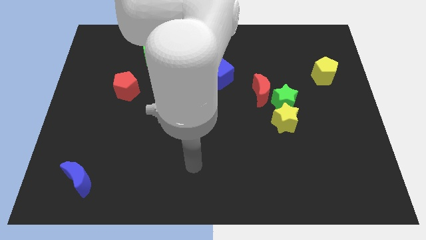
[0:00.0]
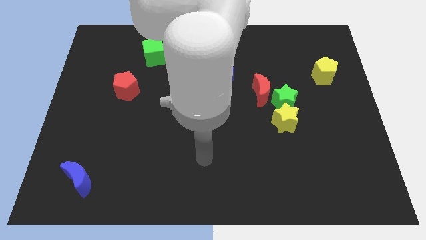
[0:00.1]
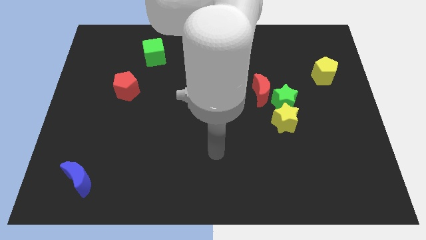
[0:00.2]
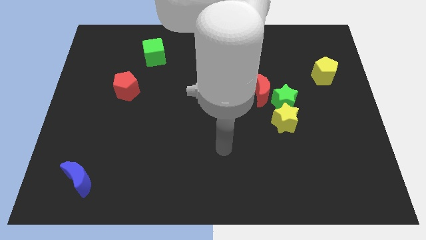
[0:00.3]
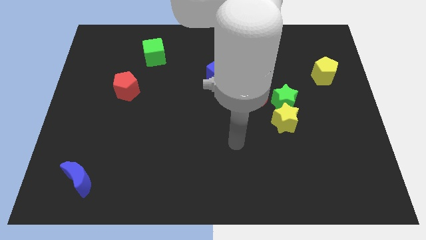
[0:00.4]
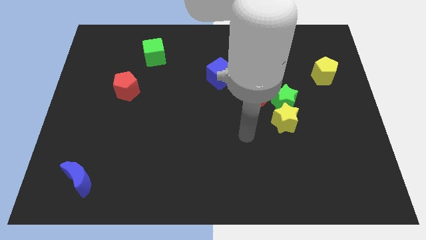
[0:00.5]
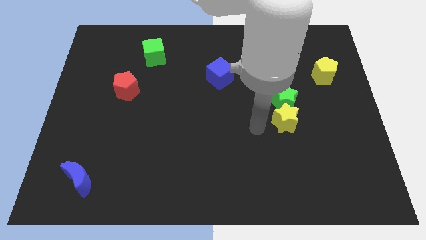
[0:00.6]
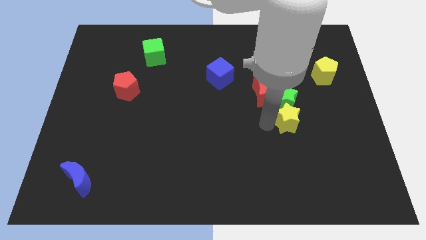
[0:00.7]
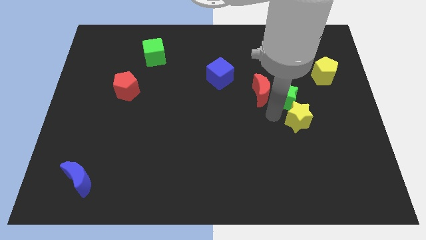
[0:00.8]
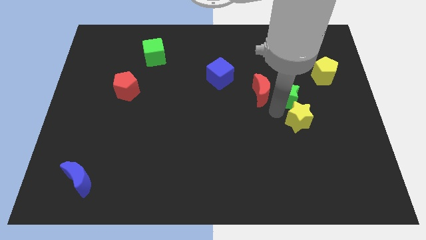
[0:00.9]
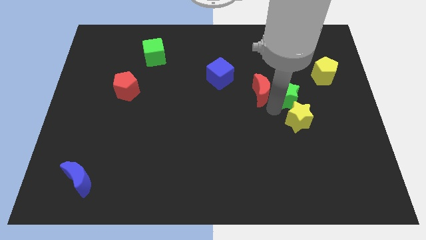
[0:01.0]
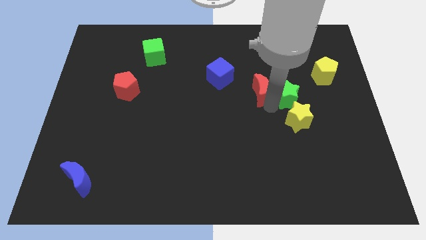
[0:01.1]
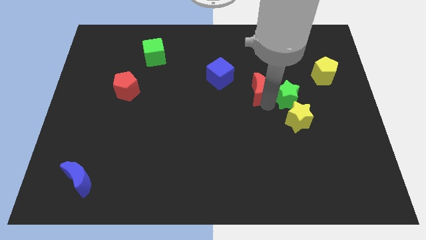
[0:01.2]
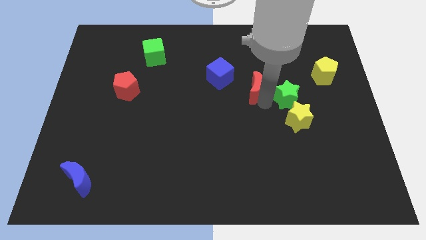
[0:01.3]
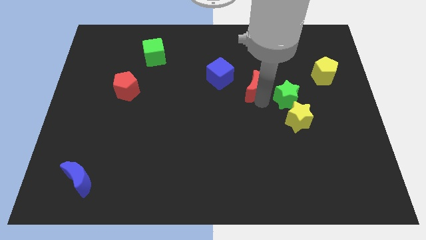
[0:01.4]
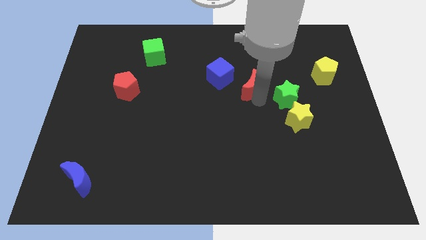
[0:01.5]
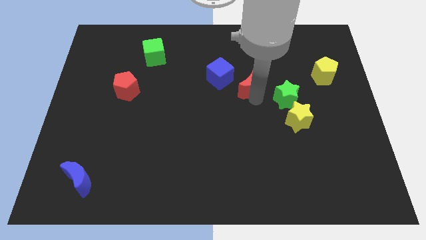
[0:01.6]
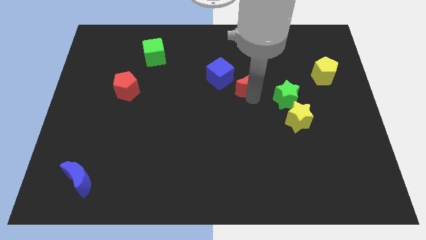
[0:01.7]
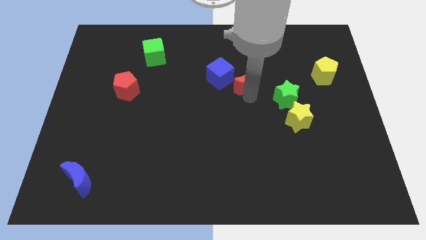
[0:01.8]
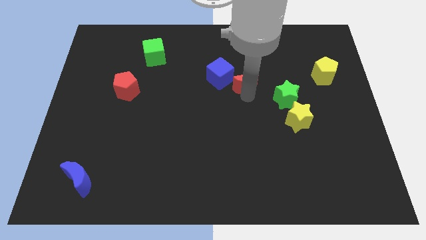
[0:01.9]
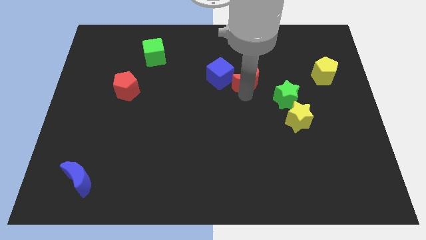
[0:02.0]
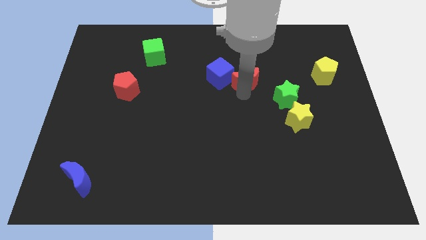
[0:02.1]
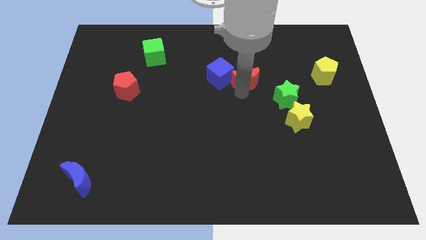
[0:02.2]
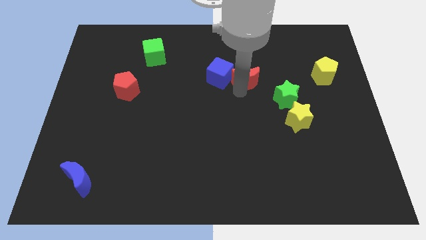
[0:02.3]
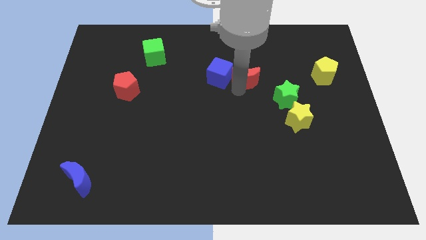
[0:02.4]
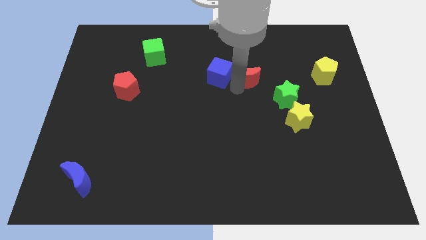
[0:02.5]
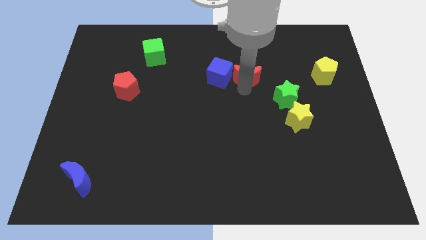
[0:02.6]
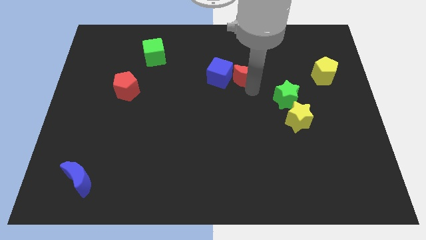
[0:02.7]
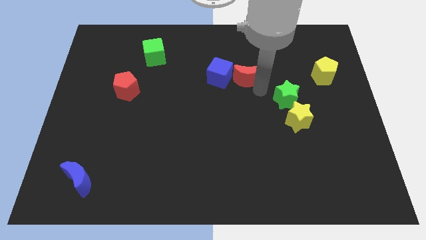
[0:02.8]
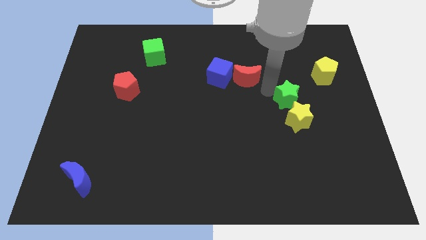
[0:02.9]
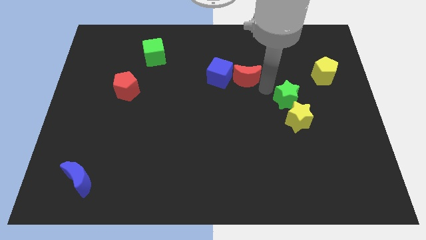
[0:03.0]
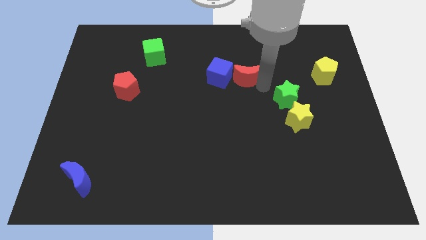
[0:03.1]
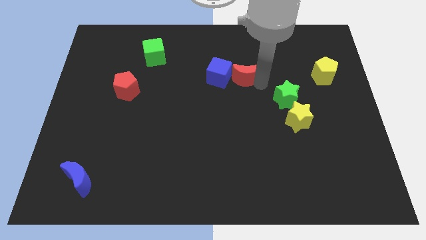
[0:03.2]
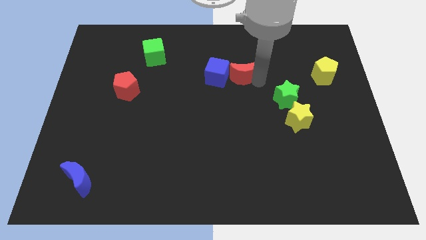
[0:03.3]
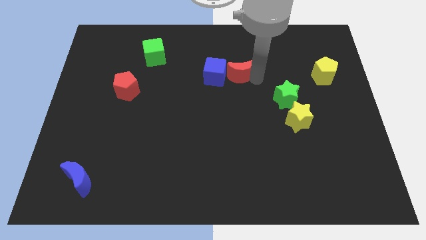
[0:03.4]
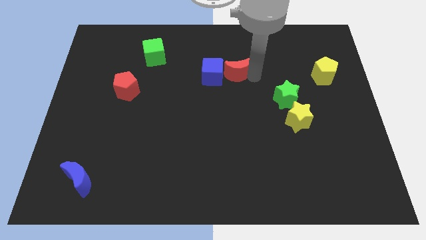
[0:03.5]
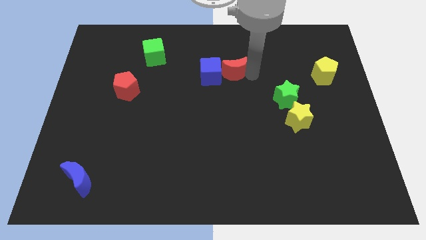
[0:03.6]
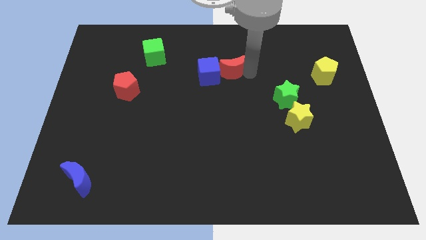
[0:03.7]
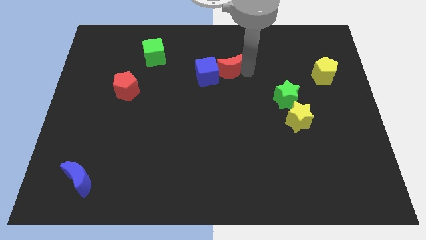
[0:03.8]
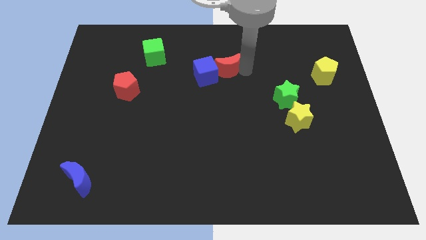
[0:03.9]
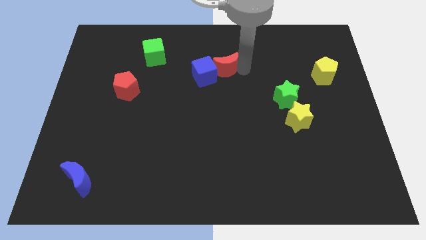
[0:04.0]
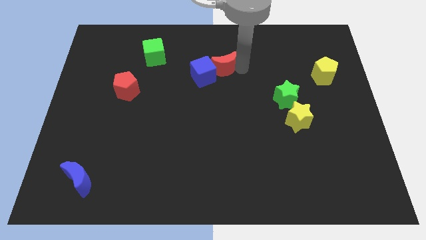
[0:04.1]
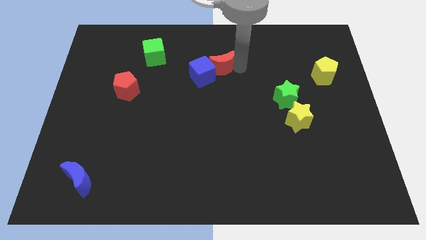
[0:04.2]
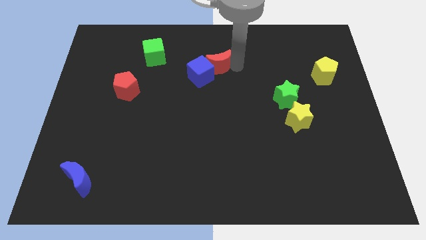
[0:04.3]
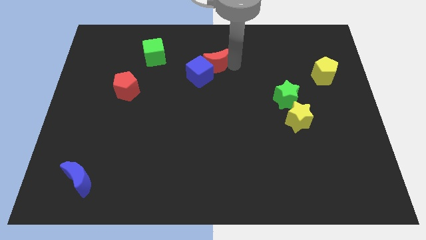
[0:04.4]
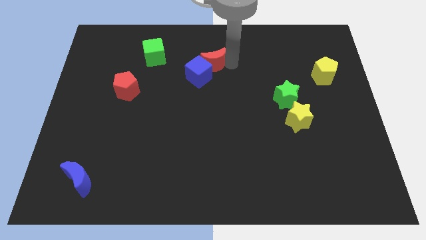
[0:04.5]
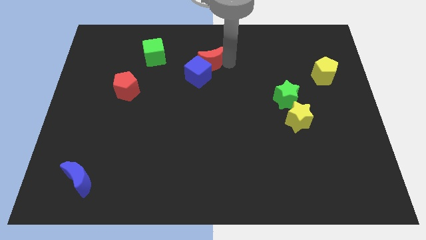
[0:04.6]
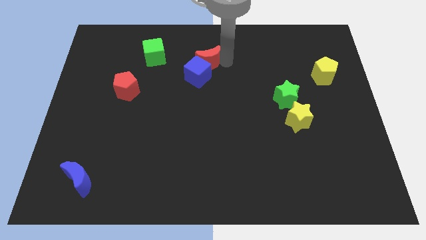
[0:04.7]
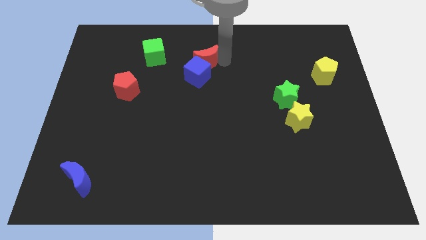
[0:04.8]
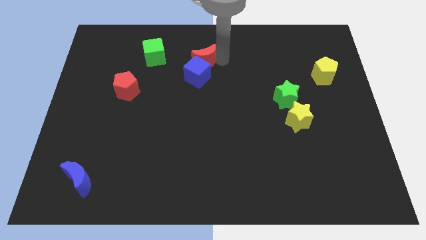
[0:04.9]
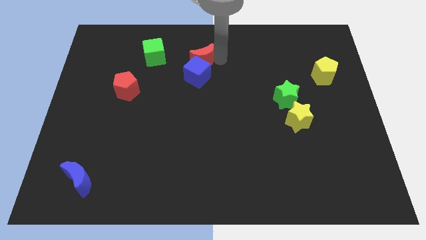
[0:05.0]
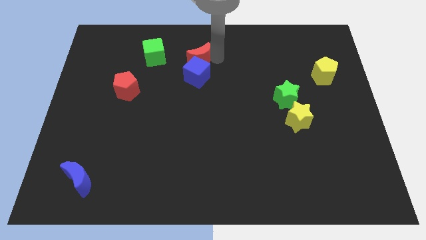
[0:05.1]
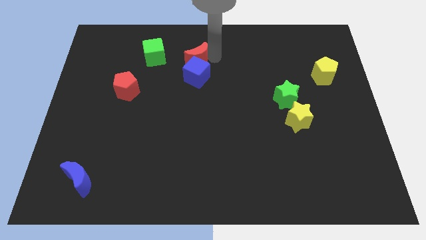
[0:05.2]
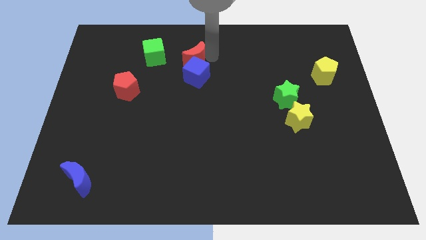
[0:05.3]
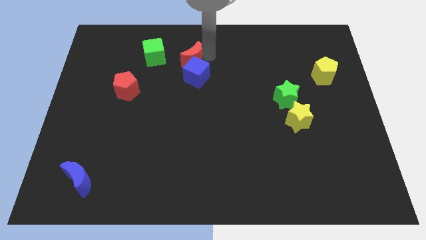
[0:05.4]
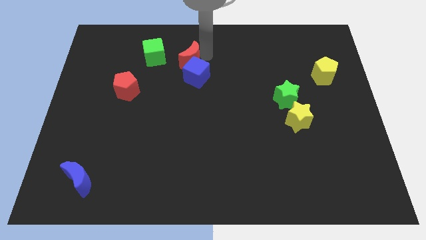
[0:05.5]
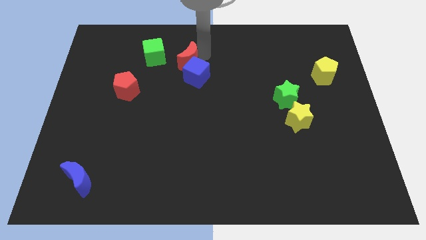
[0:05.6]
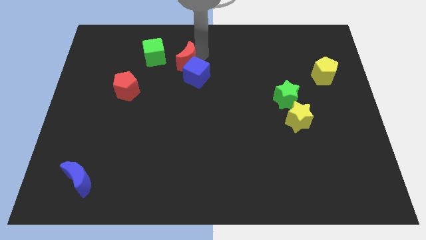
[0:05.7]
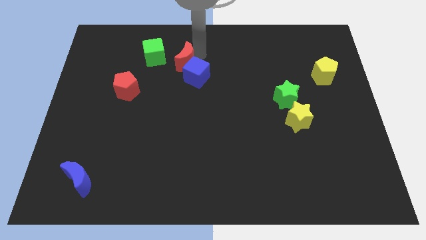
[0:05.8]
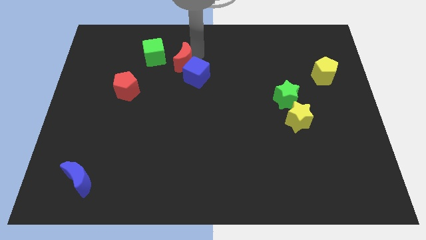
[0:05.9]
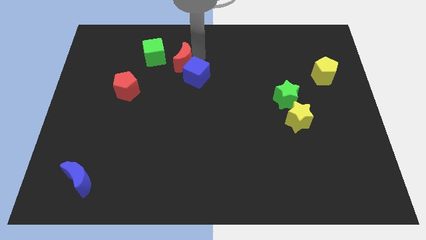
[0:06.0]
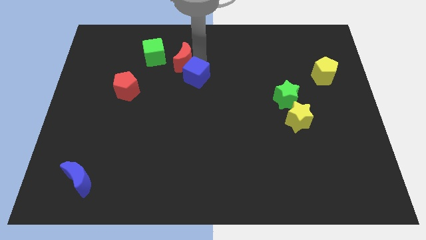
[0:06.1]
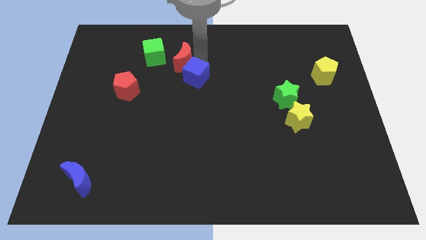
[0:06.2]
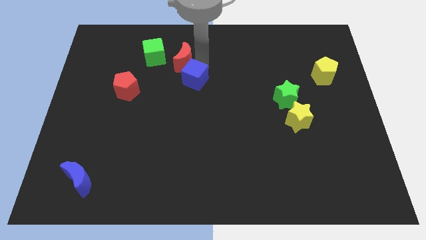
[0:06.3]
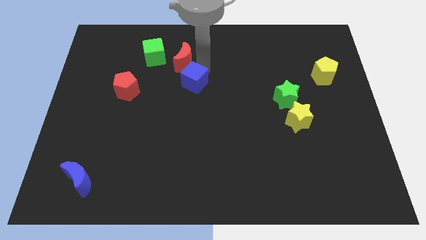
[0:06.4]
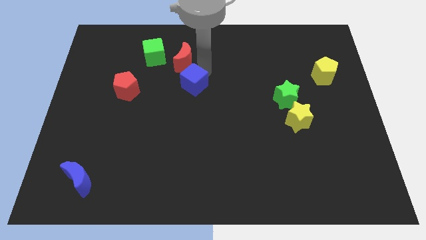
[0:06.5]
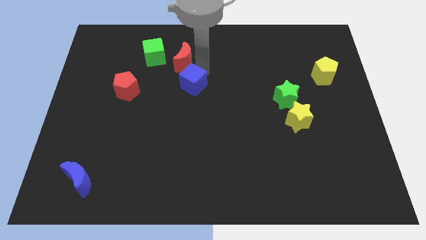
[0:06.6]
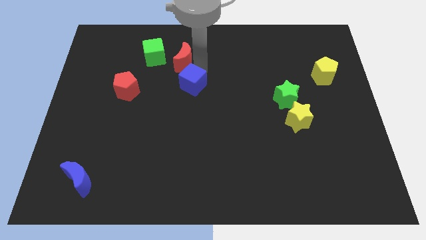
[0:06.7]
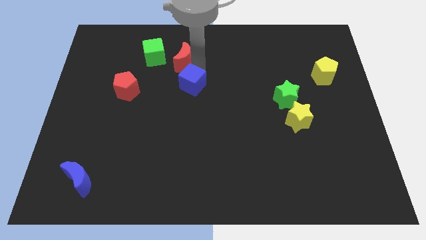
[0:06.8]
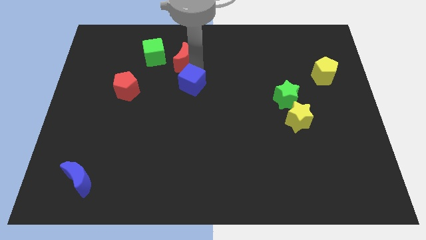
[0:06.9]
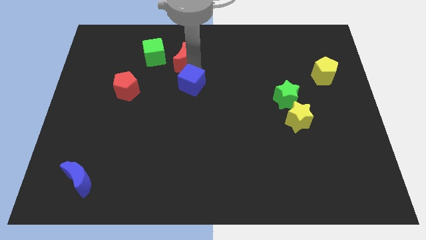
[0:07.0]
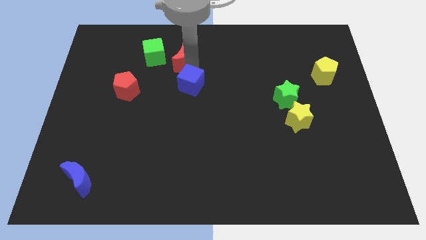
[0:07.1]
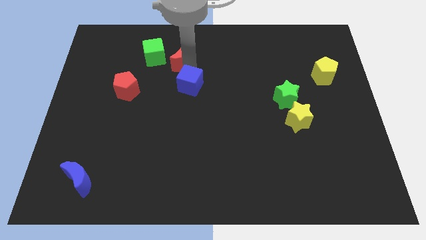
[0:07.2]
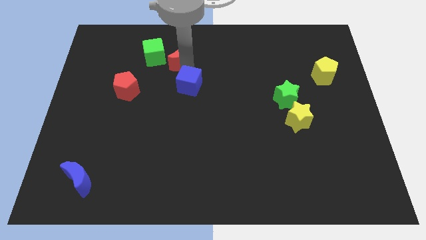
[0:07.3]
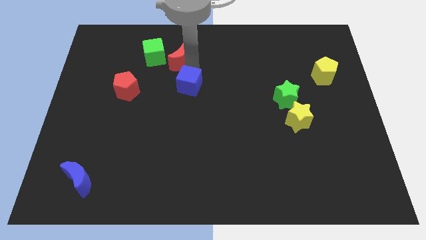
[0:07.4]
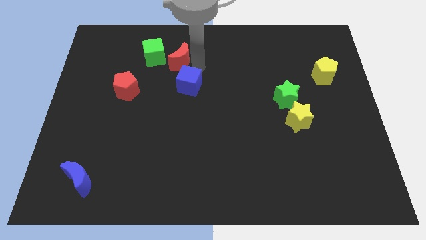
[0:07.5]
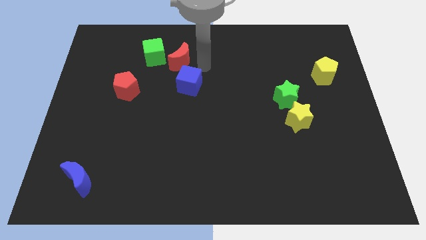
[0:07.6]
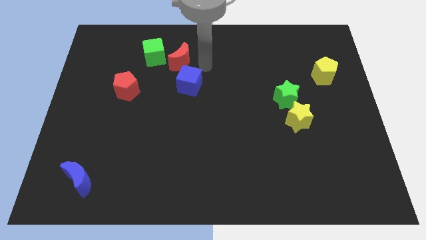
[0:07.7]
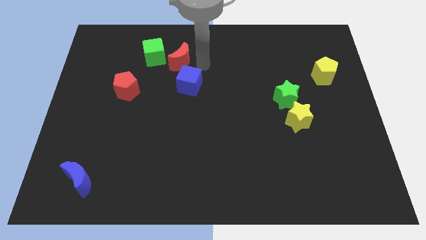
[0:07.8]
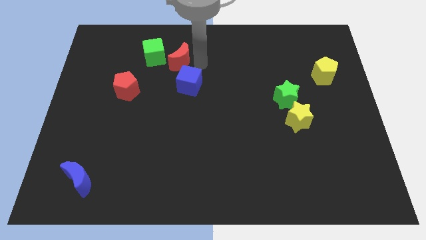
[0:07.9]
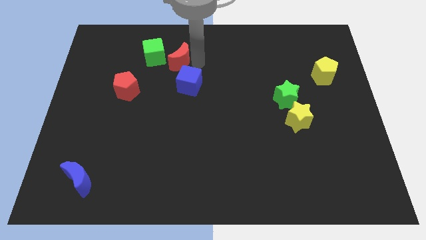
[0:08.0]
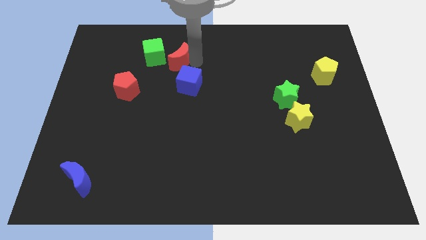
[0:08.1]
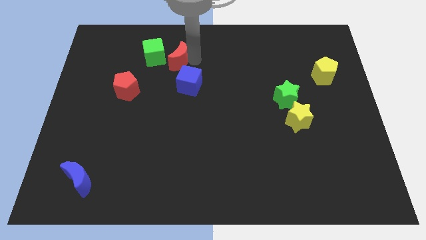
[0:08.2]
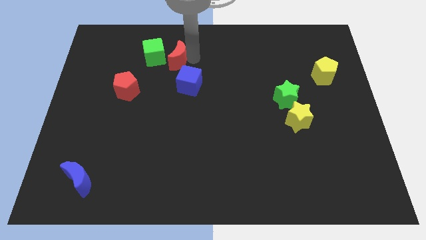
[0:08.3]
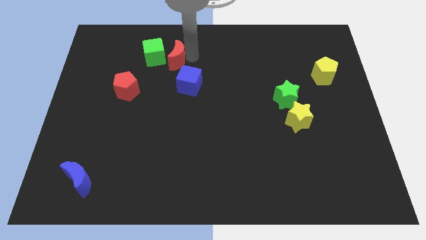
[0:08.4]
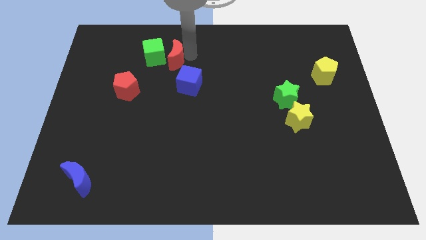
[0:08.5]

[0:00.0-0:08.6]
slide the red moon close to the green cube
